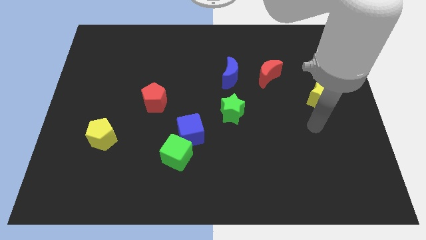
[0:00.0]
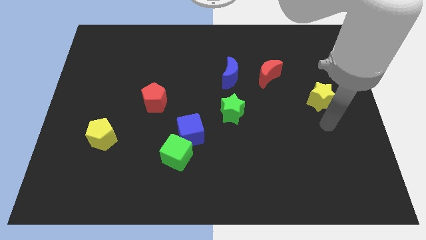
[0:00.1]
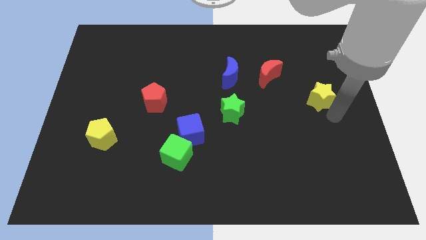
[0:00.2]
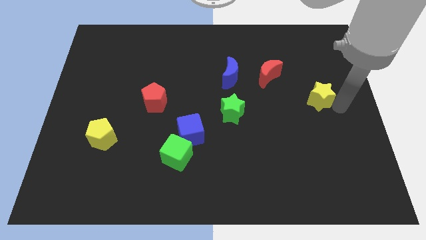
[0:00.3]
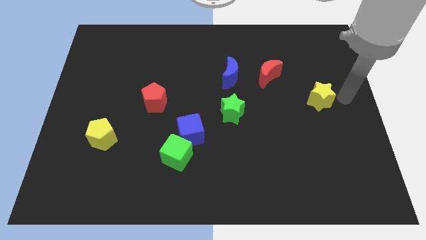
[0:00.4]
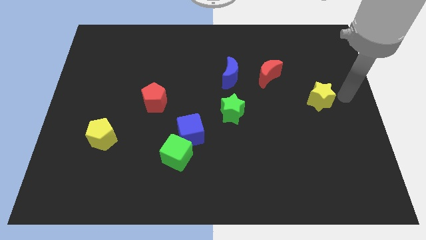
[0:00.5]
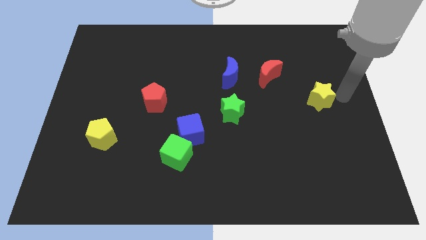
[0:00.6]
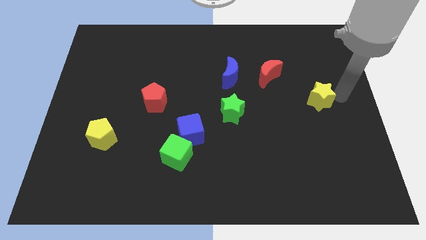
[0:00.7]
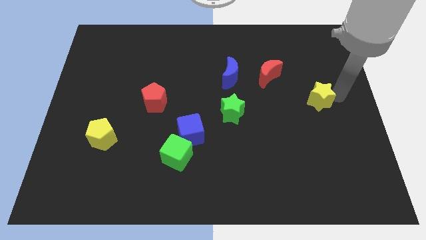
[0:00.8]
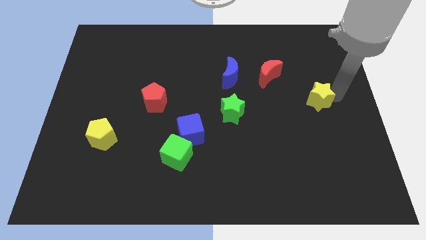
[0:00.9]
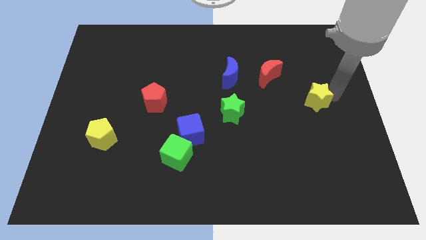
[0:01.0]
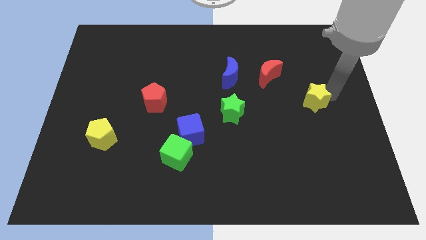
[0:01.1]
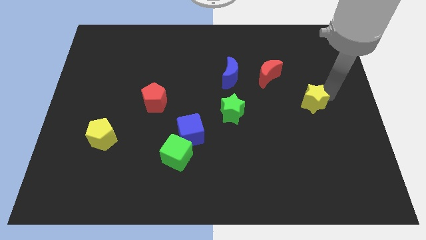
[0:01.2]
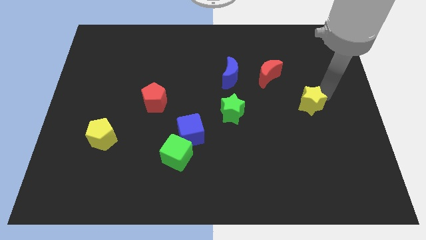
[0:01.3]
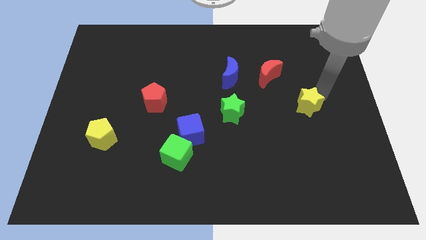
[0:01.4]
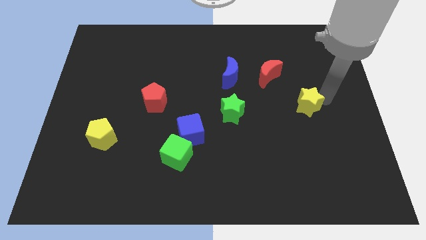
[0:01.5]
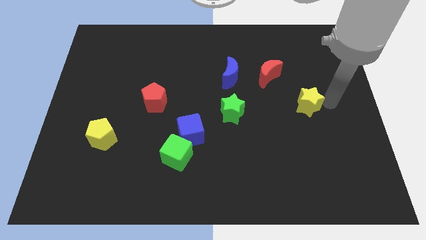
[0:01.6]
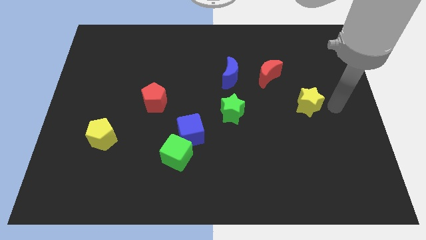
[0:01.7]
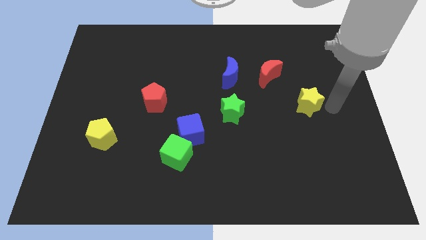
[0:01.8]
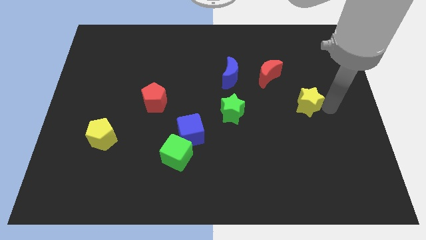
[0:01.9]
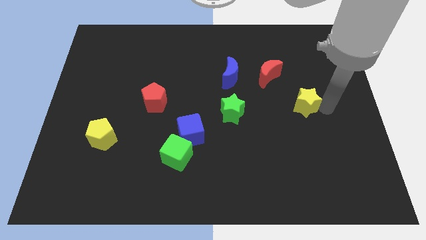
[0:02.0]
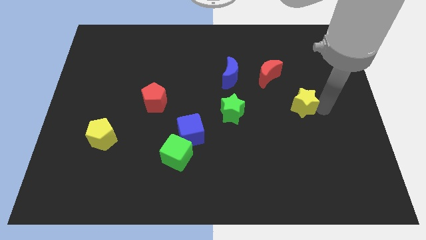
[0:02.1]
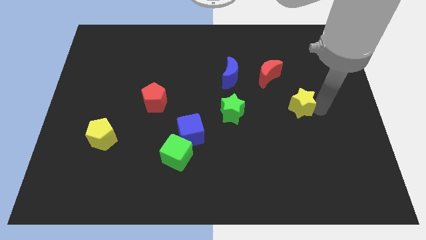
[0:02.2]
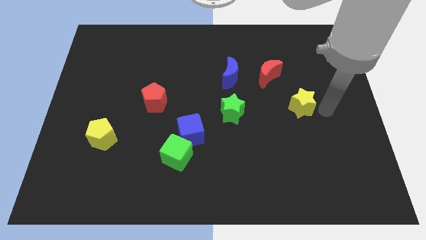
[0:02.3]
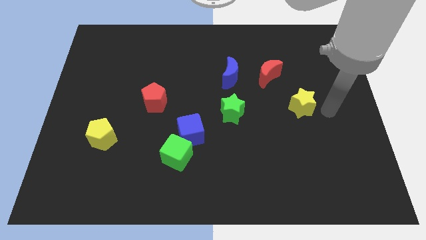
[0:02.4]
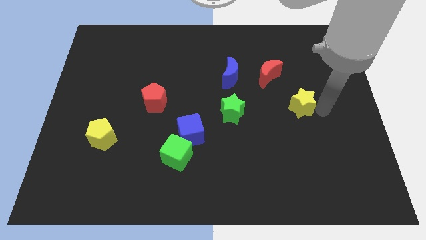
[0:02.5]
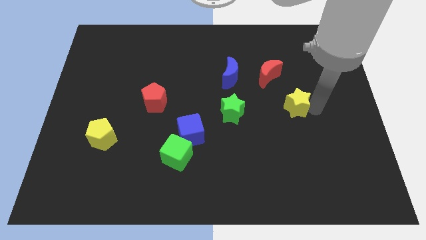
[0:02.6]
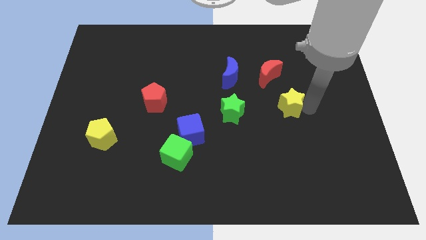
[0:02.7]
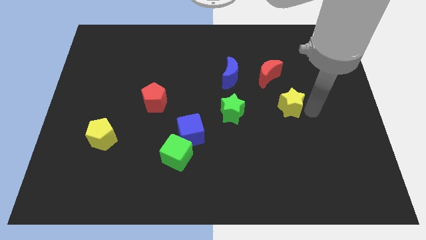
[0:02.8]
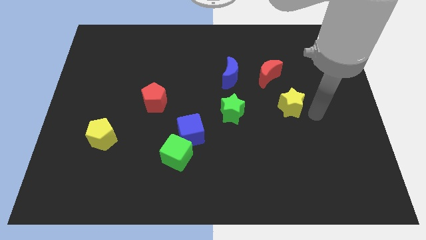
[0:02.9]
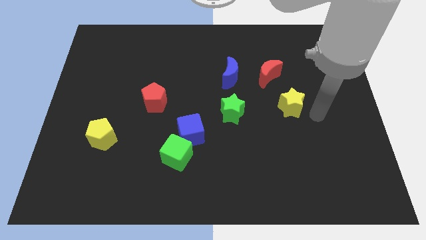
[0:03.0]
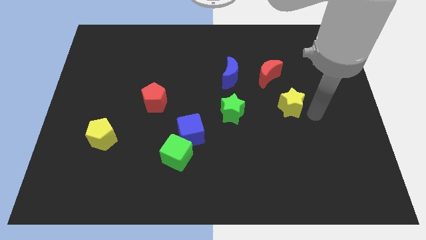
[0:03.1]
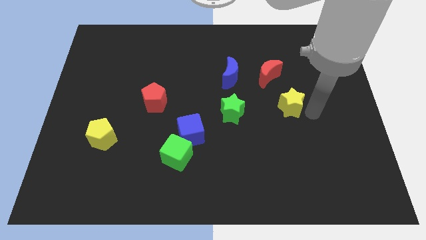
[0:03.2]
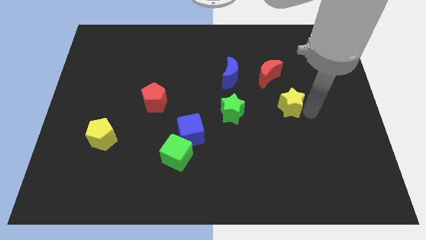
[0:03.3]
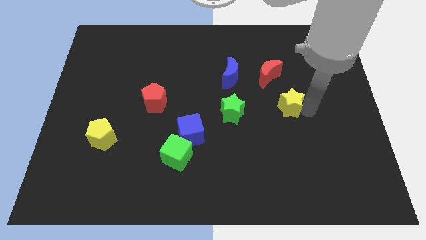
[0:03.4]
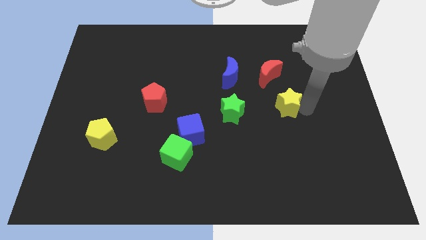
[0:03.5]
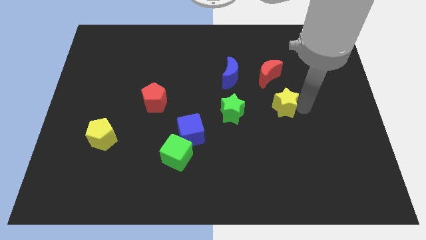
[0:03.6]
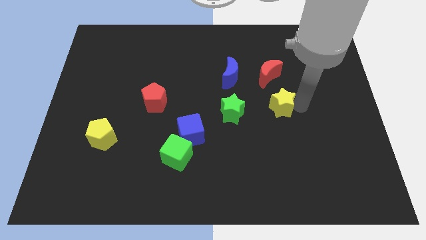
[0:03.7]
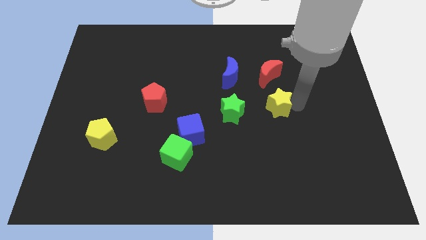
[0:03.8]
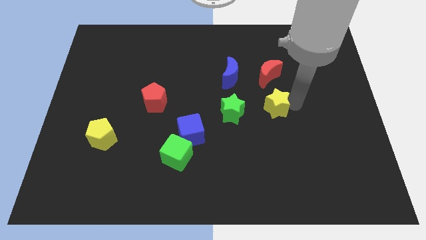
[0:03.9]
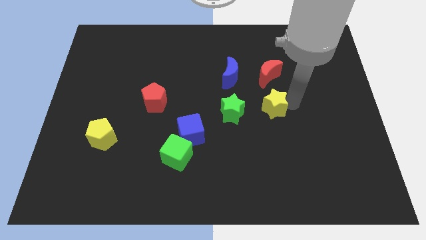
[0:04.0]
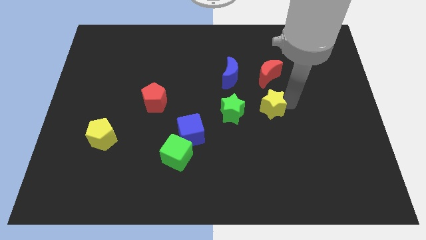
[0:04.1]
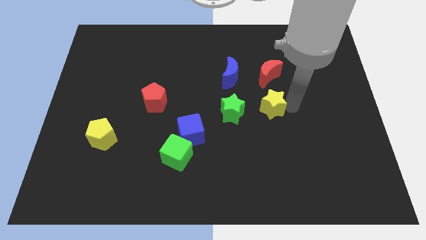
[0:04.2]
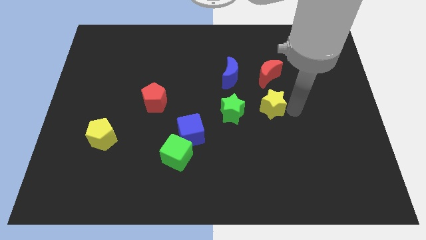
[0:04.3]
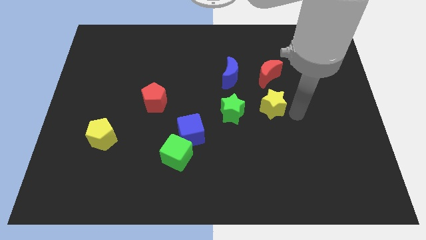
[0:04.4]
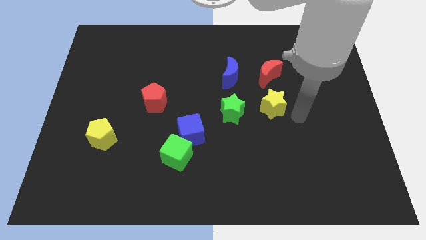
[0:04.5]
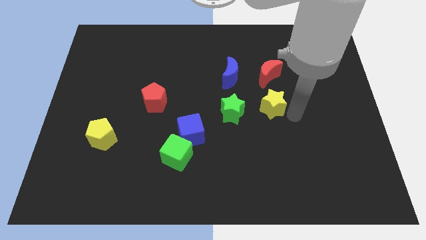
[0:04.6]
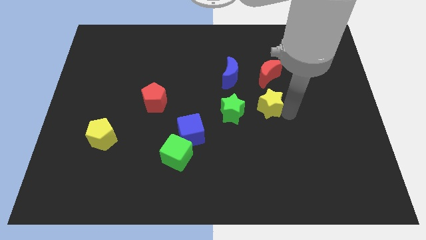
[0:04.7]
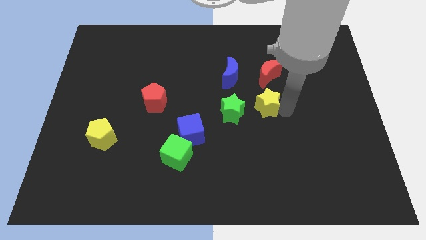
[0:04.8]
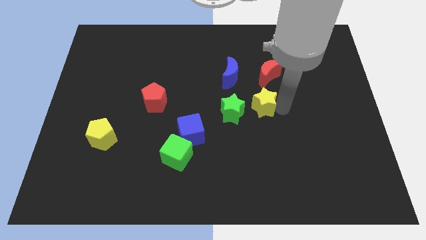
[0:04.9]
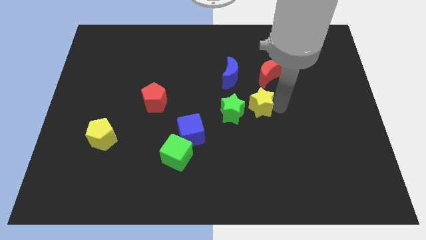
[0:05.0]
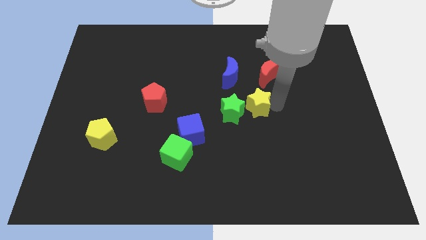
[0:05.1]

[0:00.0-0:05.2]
push the yellow star next to the green star

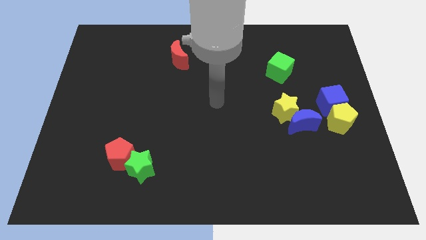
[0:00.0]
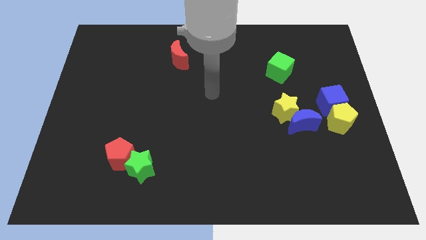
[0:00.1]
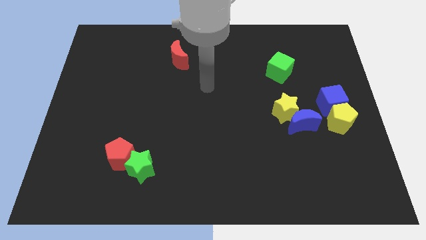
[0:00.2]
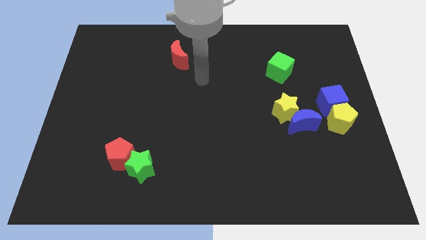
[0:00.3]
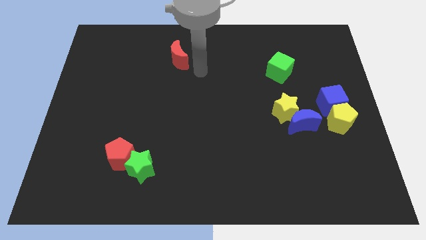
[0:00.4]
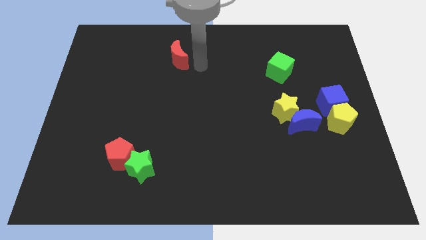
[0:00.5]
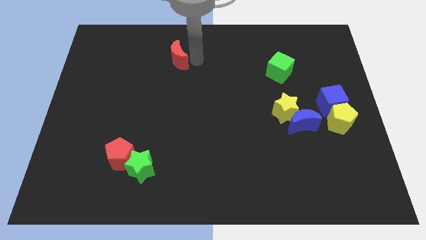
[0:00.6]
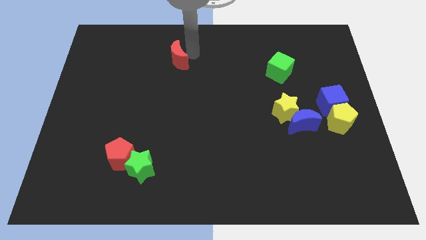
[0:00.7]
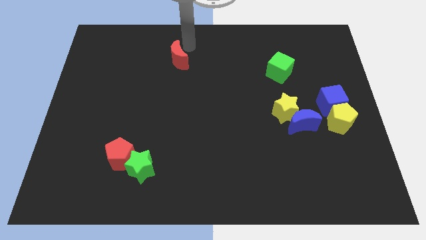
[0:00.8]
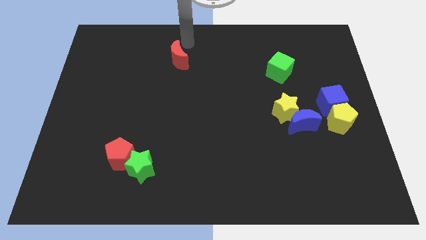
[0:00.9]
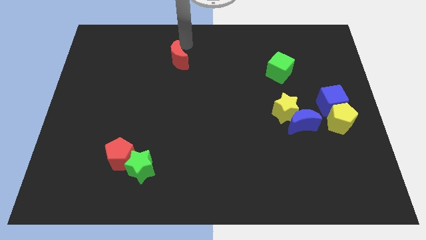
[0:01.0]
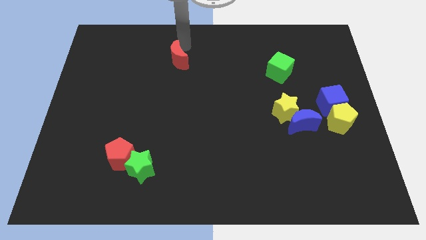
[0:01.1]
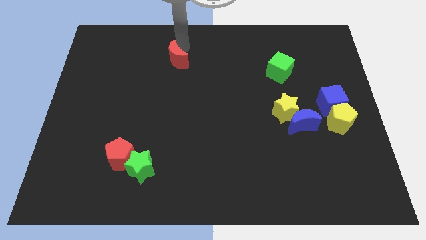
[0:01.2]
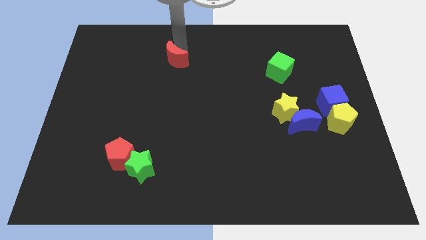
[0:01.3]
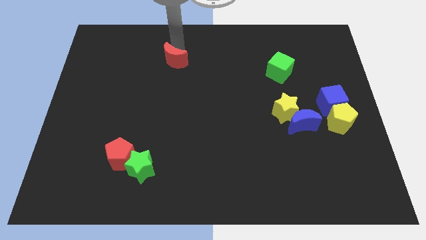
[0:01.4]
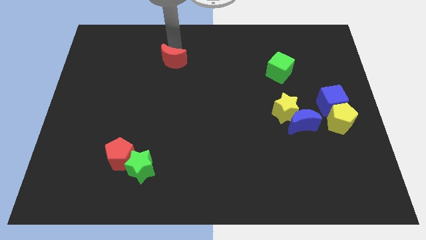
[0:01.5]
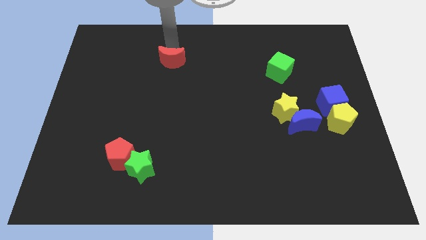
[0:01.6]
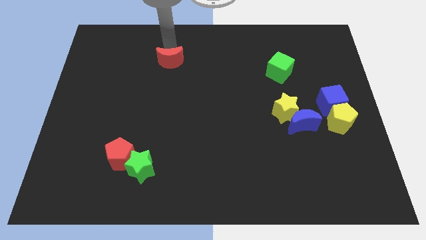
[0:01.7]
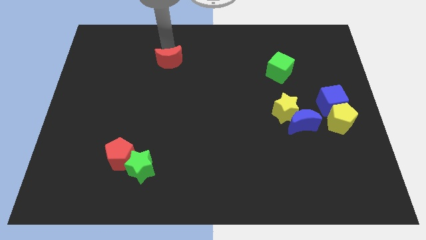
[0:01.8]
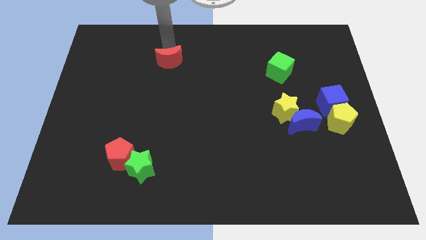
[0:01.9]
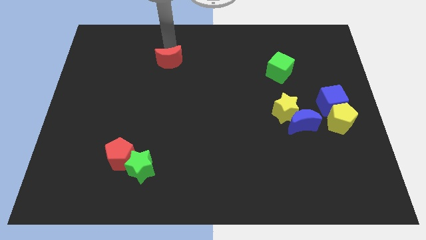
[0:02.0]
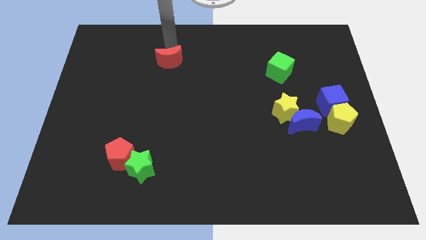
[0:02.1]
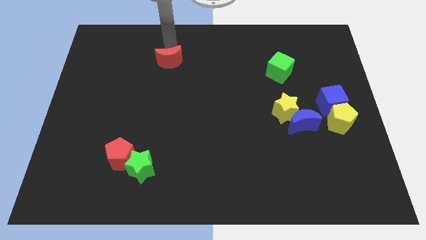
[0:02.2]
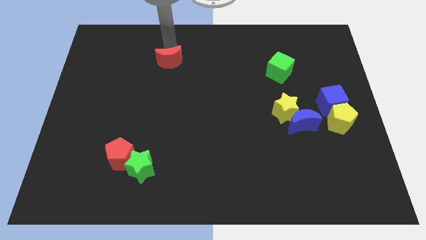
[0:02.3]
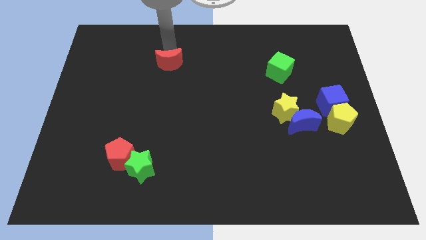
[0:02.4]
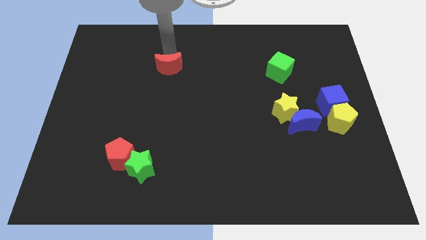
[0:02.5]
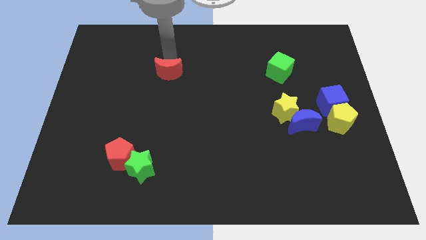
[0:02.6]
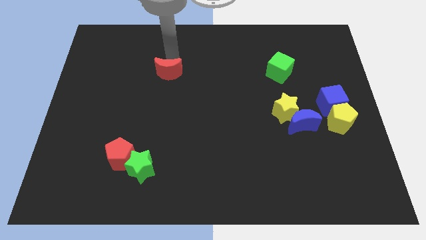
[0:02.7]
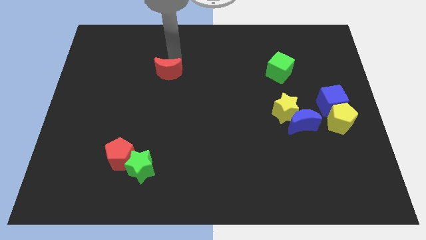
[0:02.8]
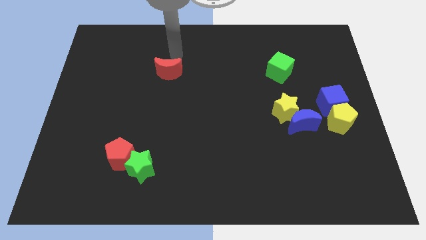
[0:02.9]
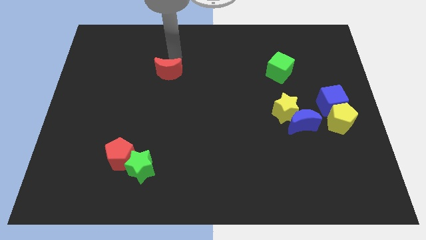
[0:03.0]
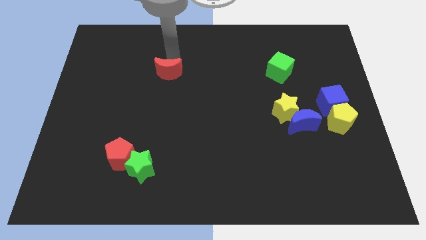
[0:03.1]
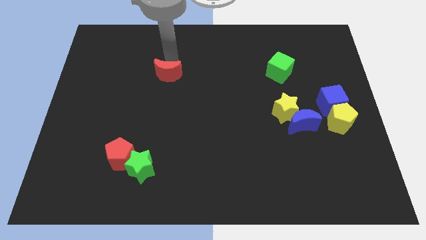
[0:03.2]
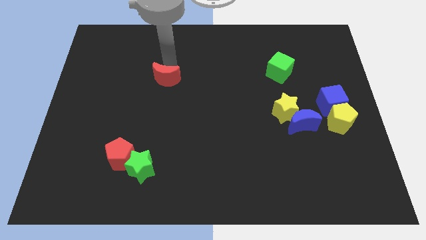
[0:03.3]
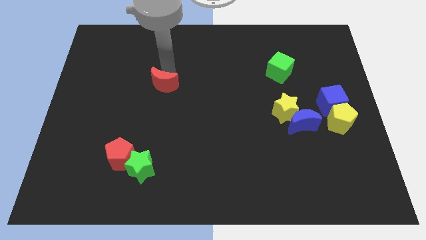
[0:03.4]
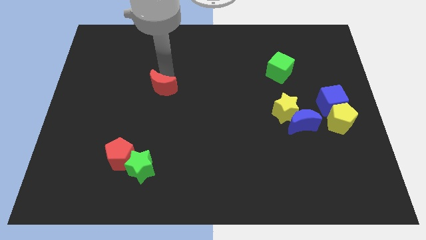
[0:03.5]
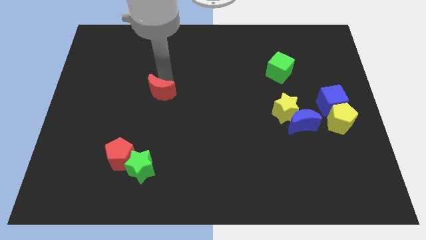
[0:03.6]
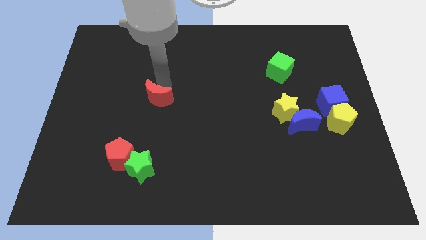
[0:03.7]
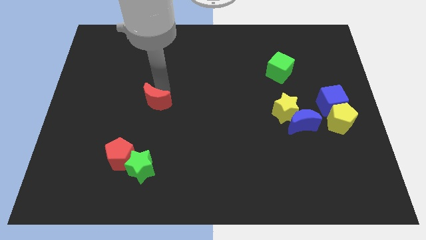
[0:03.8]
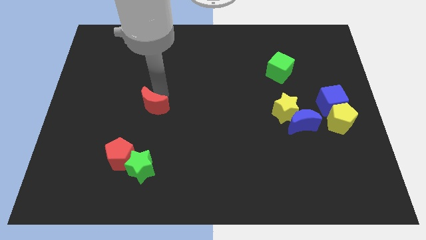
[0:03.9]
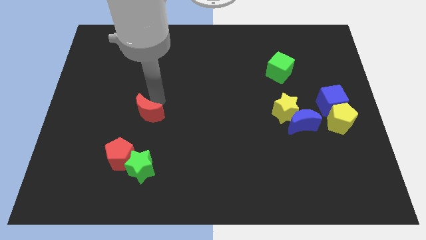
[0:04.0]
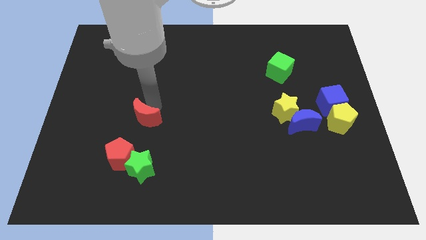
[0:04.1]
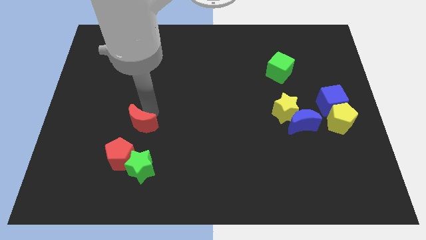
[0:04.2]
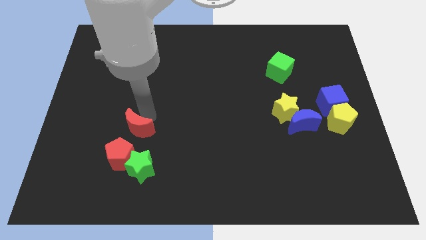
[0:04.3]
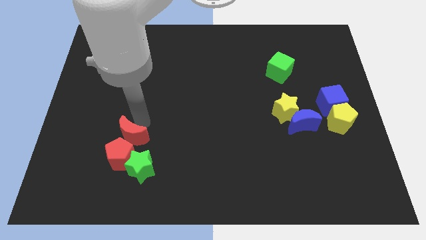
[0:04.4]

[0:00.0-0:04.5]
push the red moon next to the red pentagon
